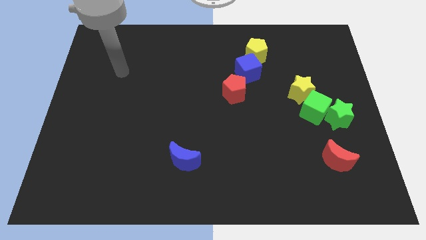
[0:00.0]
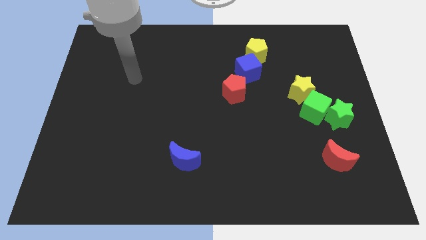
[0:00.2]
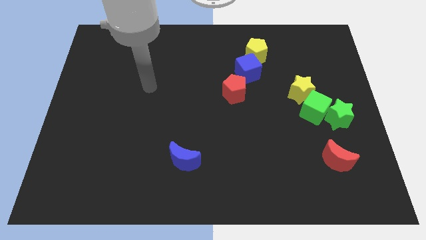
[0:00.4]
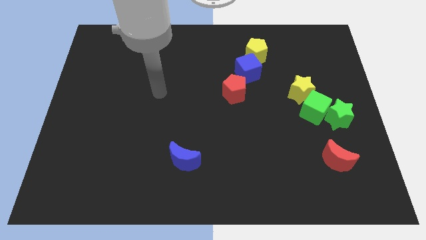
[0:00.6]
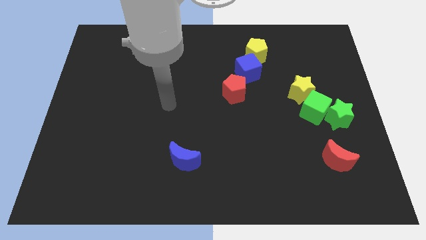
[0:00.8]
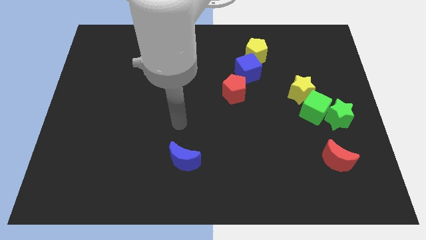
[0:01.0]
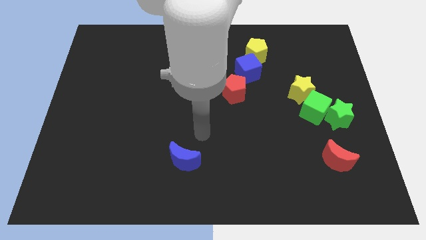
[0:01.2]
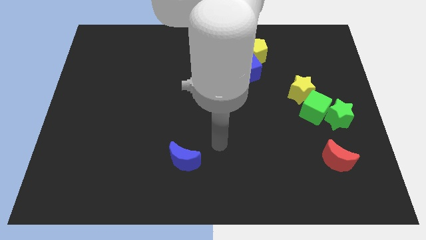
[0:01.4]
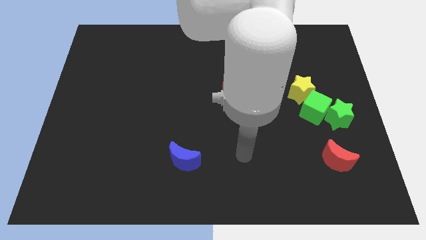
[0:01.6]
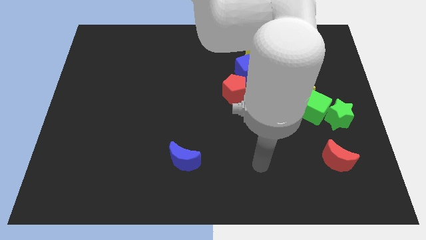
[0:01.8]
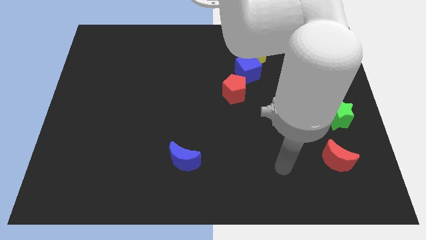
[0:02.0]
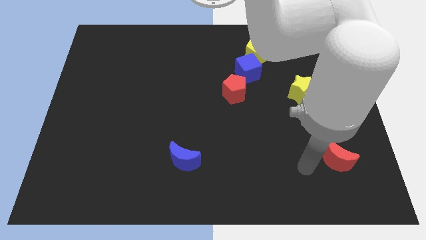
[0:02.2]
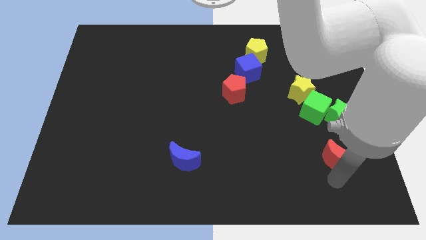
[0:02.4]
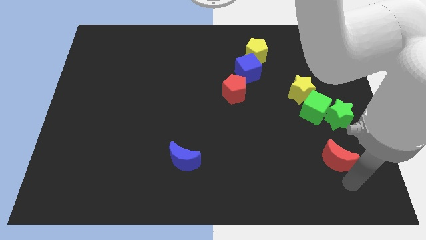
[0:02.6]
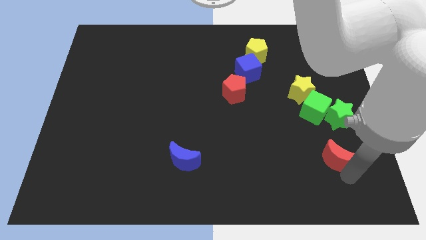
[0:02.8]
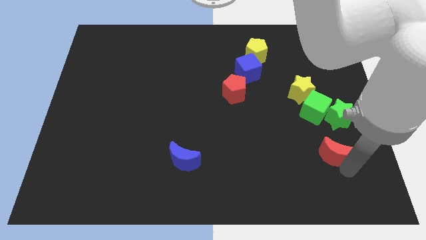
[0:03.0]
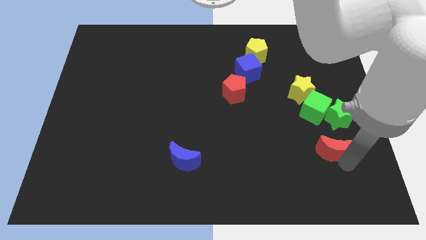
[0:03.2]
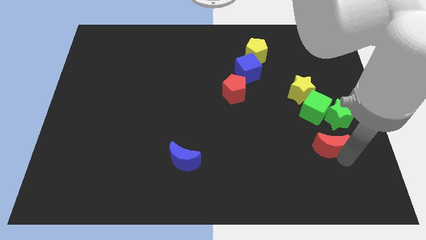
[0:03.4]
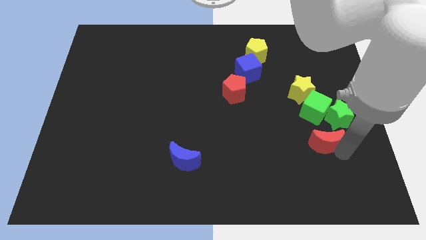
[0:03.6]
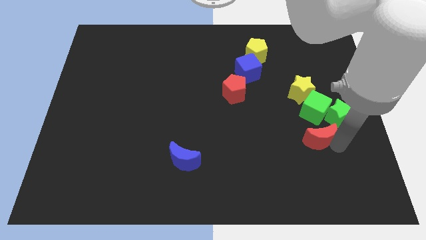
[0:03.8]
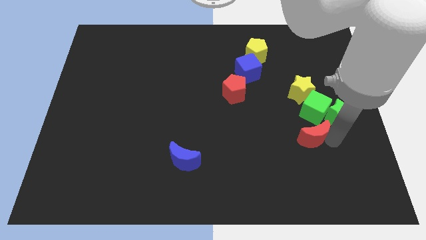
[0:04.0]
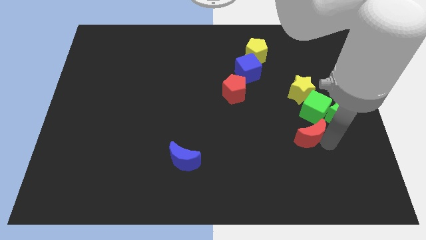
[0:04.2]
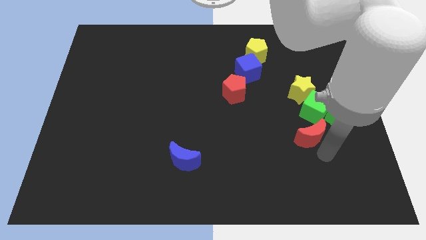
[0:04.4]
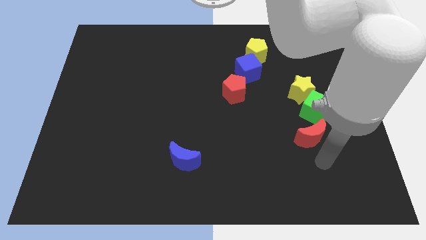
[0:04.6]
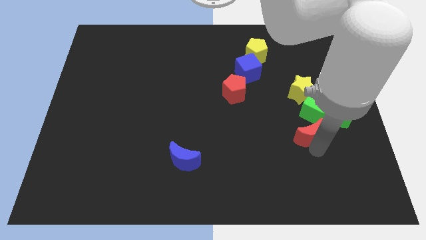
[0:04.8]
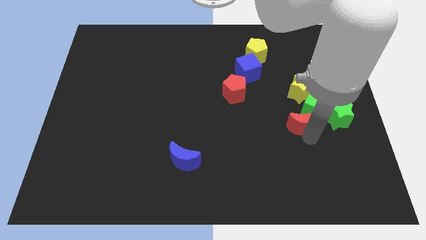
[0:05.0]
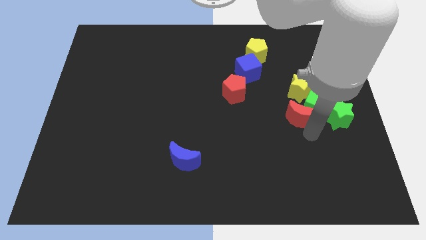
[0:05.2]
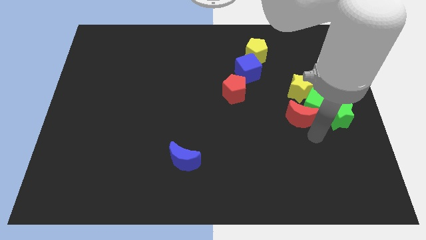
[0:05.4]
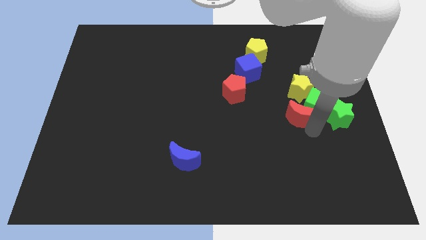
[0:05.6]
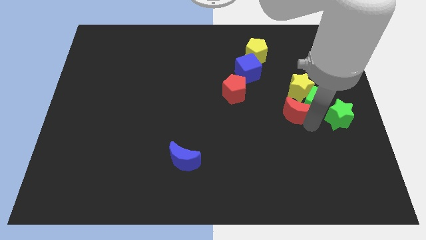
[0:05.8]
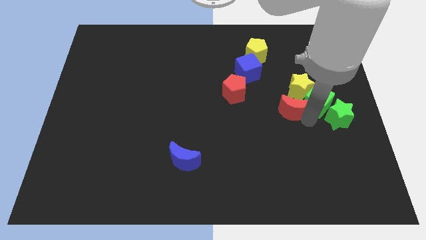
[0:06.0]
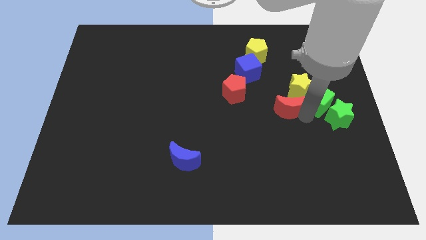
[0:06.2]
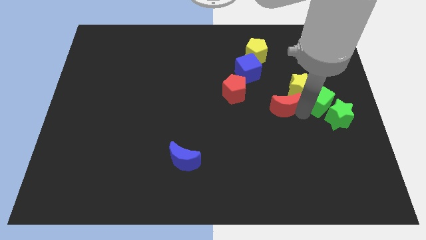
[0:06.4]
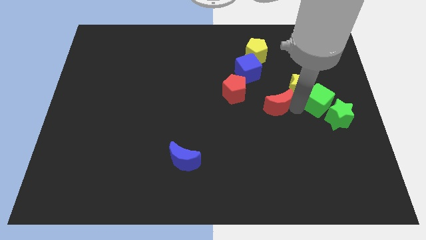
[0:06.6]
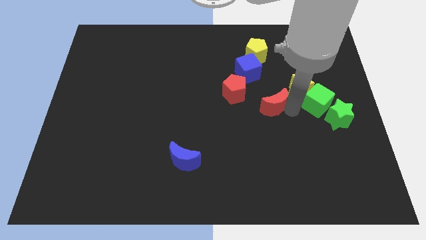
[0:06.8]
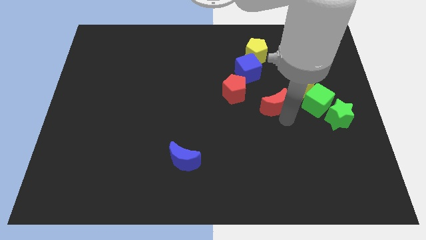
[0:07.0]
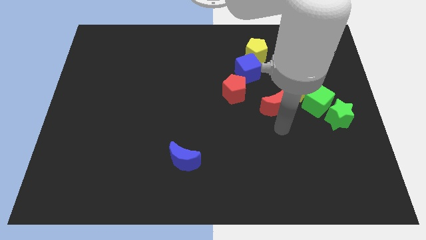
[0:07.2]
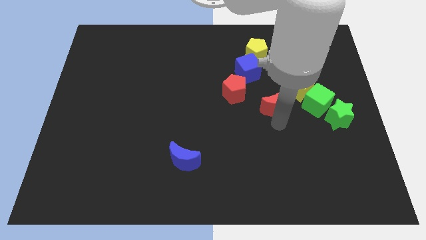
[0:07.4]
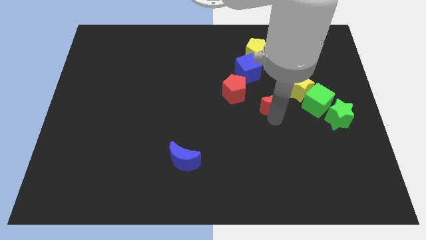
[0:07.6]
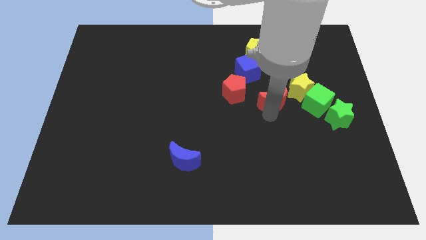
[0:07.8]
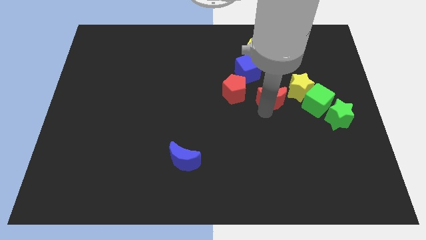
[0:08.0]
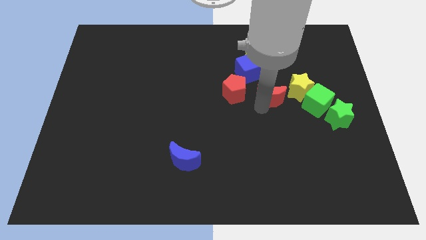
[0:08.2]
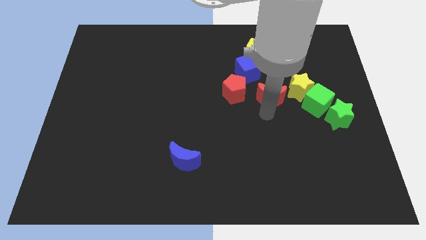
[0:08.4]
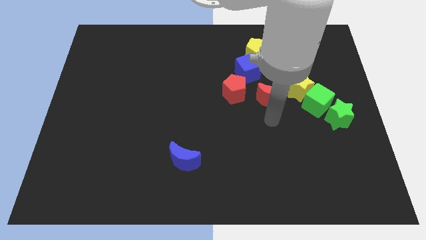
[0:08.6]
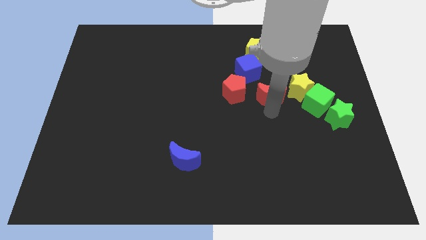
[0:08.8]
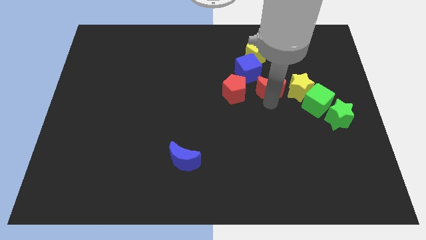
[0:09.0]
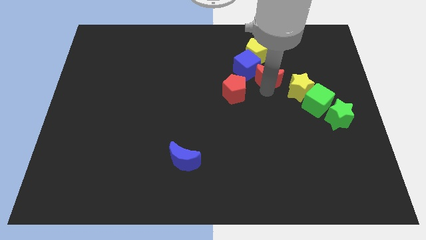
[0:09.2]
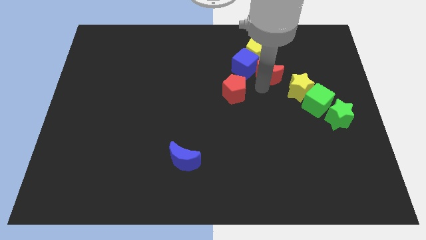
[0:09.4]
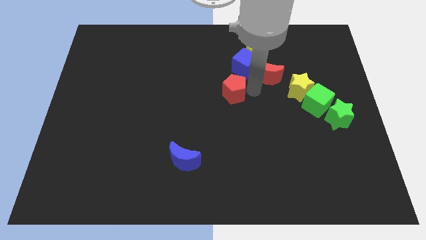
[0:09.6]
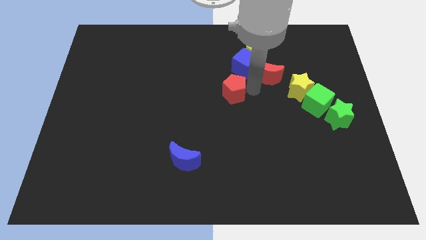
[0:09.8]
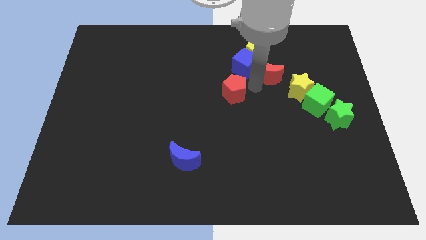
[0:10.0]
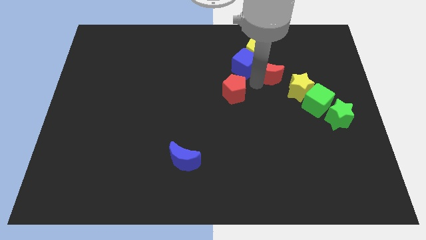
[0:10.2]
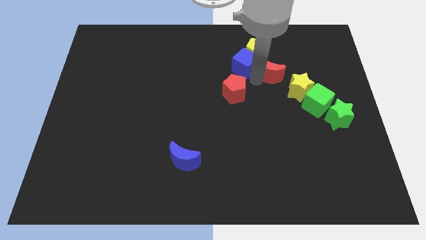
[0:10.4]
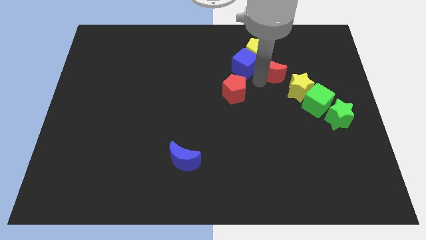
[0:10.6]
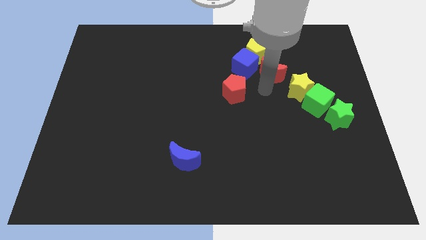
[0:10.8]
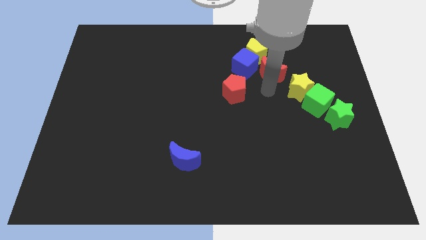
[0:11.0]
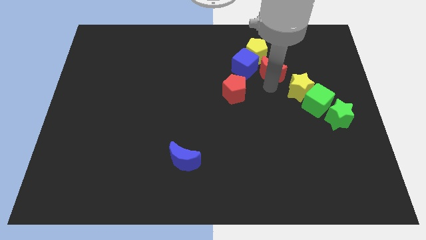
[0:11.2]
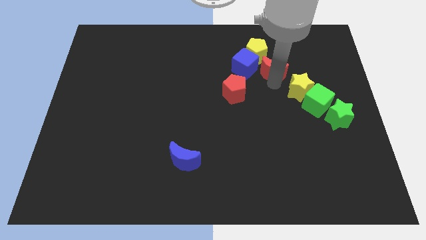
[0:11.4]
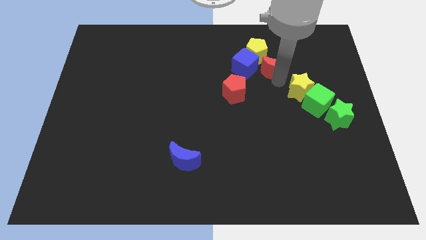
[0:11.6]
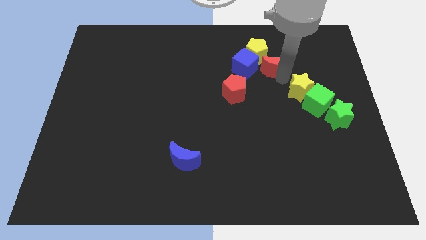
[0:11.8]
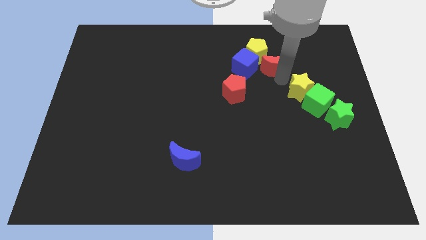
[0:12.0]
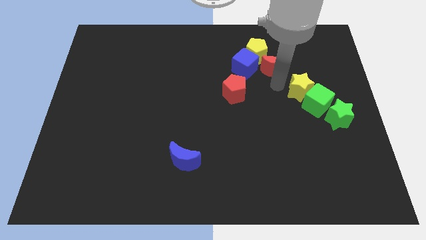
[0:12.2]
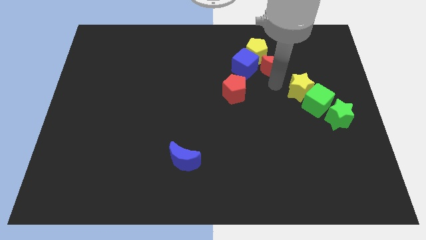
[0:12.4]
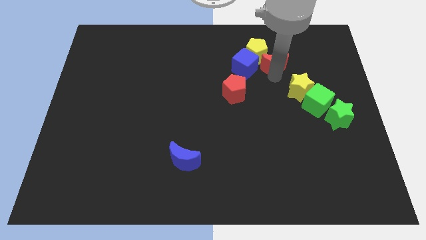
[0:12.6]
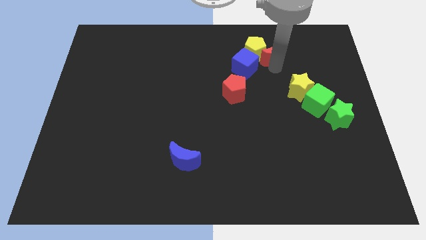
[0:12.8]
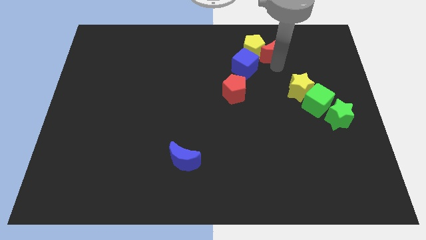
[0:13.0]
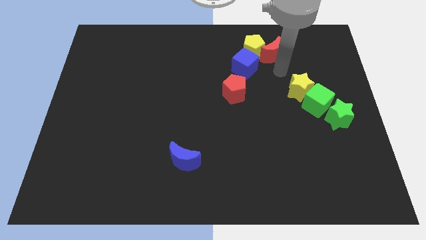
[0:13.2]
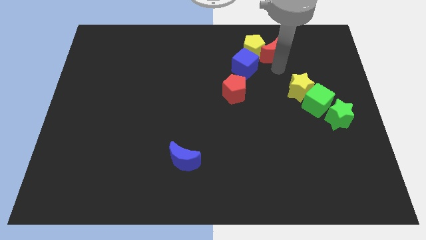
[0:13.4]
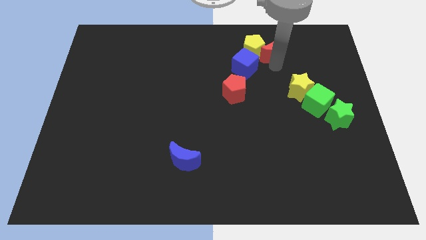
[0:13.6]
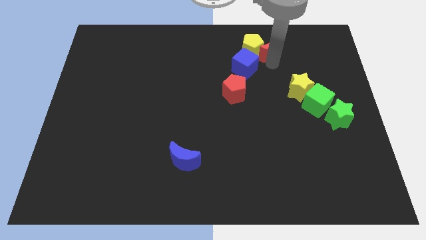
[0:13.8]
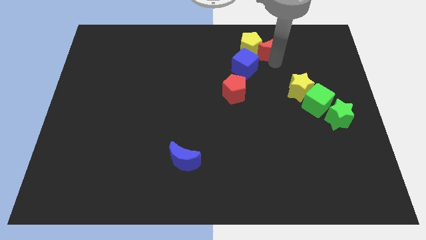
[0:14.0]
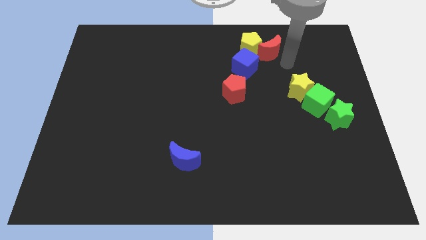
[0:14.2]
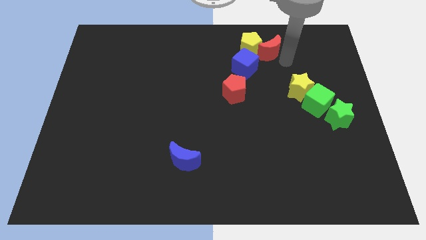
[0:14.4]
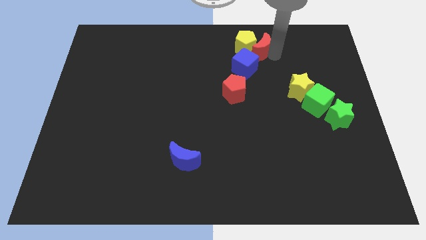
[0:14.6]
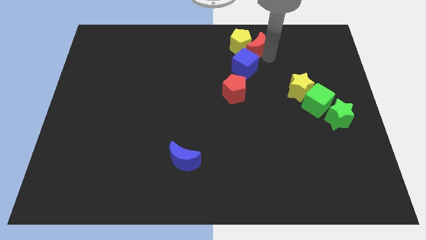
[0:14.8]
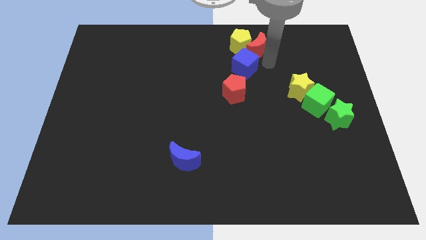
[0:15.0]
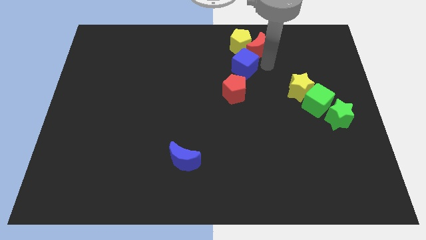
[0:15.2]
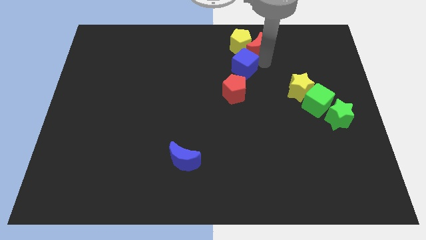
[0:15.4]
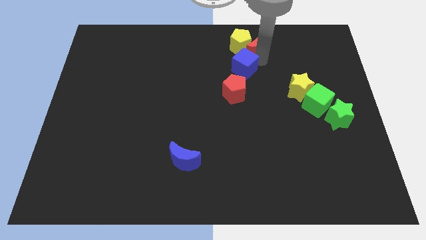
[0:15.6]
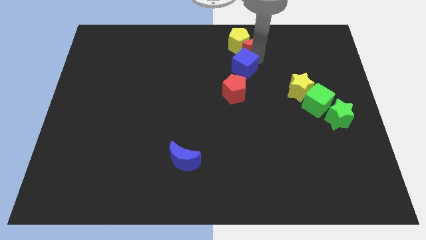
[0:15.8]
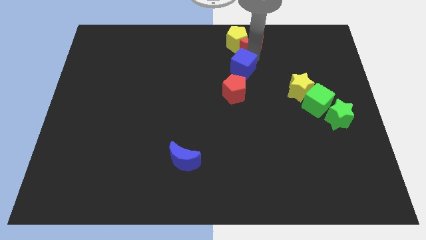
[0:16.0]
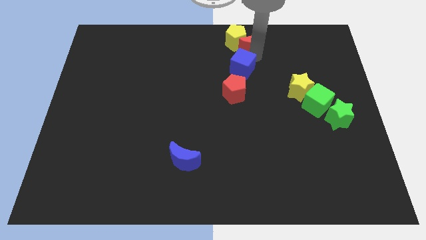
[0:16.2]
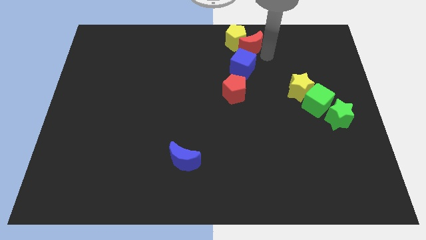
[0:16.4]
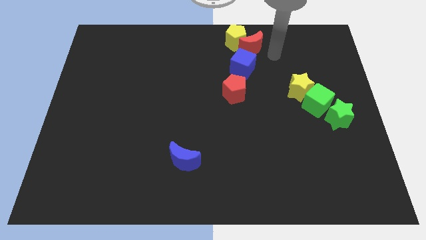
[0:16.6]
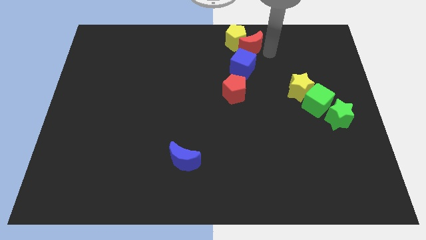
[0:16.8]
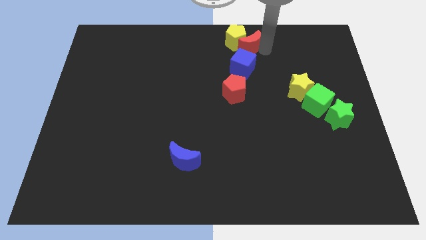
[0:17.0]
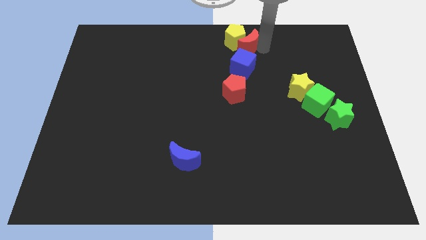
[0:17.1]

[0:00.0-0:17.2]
push the red moon to the top side
